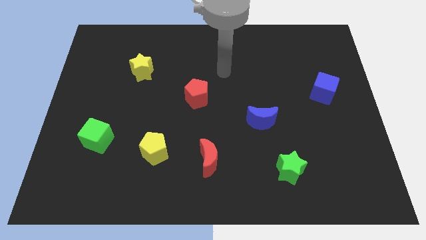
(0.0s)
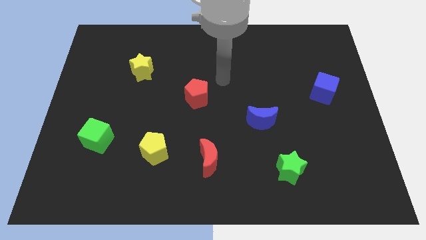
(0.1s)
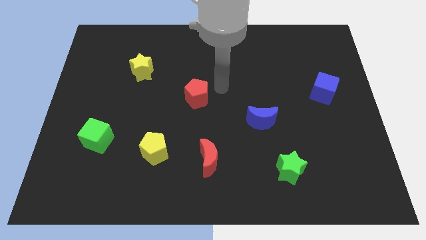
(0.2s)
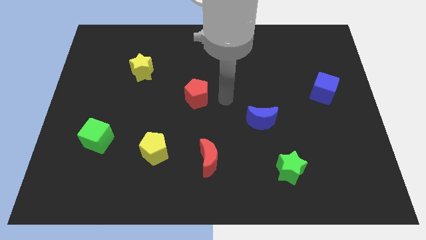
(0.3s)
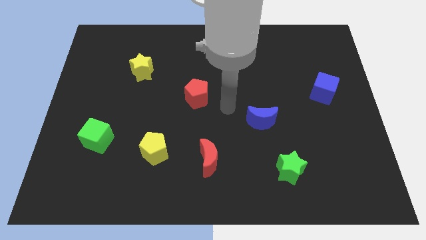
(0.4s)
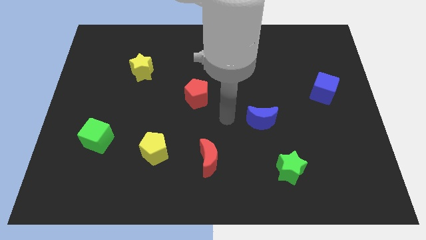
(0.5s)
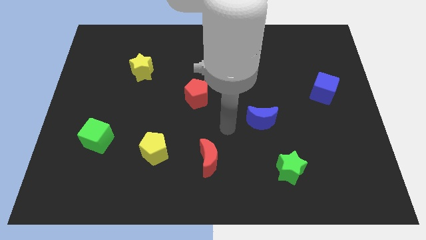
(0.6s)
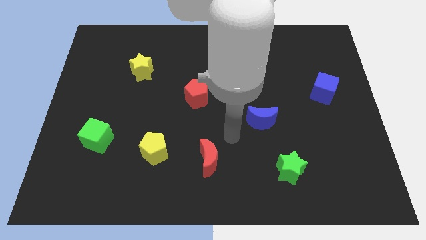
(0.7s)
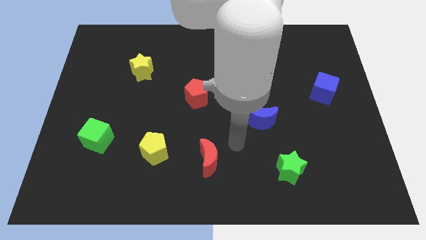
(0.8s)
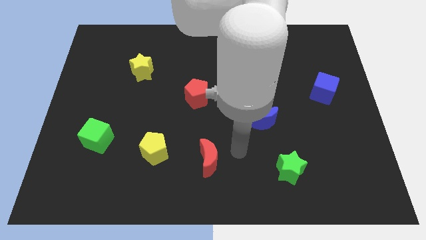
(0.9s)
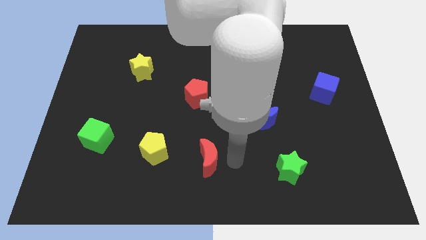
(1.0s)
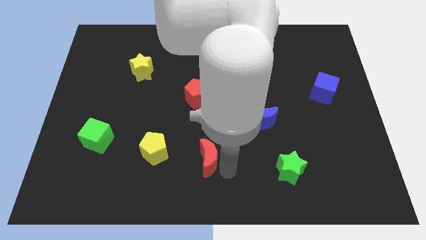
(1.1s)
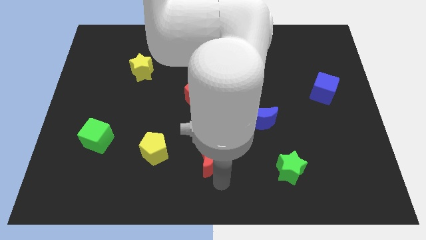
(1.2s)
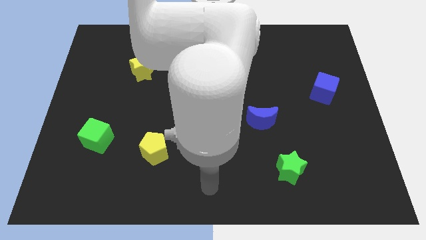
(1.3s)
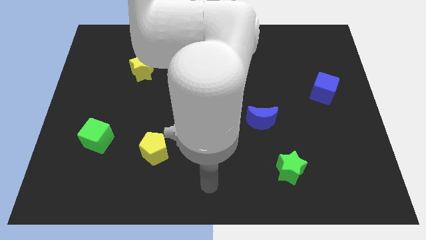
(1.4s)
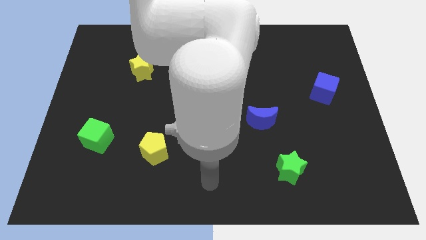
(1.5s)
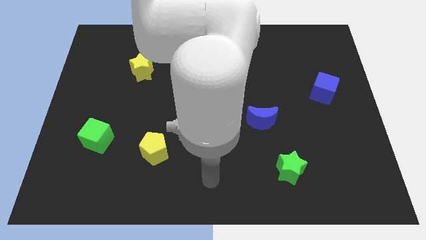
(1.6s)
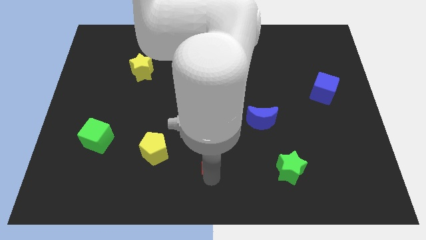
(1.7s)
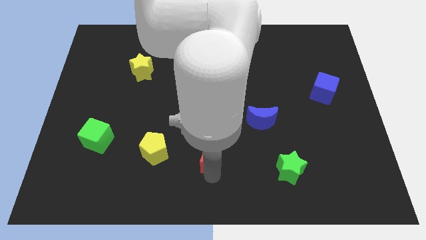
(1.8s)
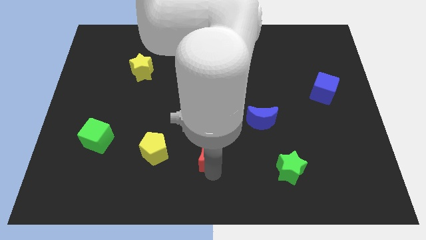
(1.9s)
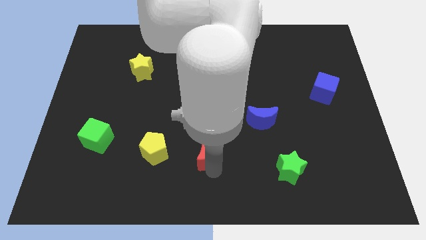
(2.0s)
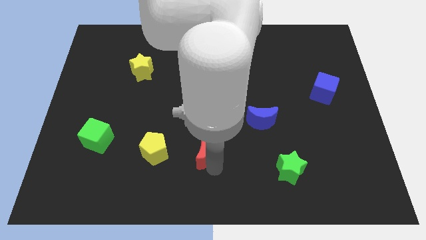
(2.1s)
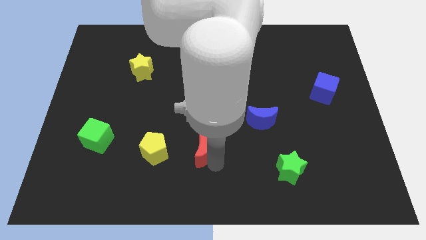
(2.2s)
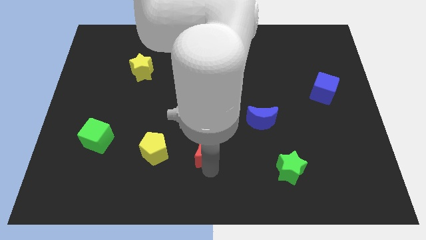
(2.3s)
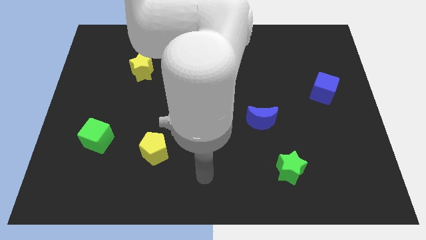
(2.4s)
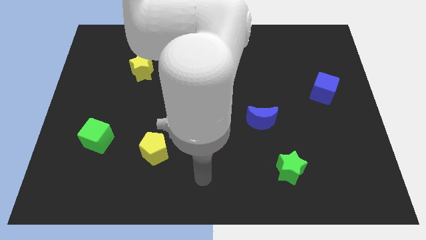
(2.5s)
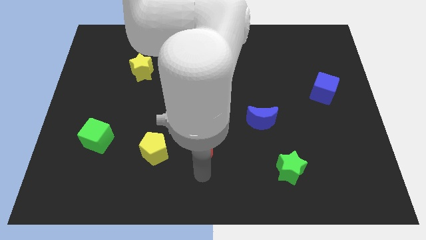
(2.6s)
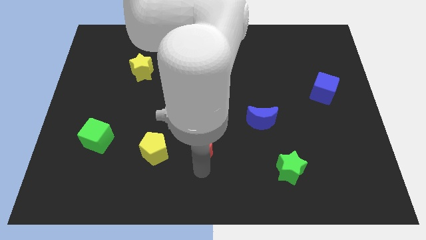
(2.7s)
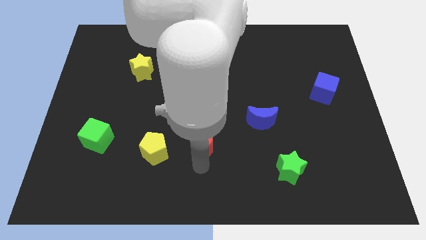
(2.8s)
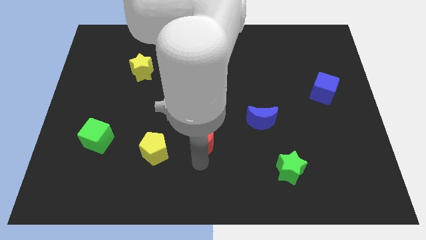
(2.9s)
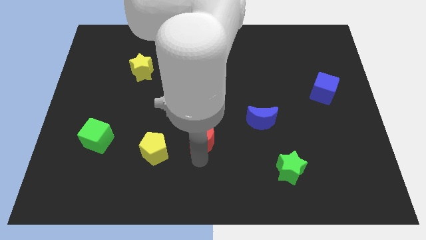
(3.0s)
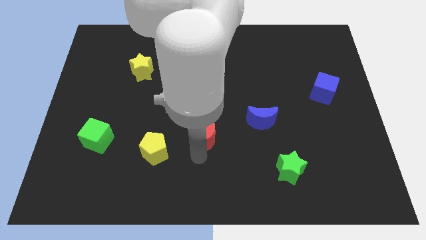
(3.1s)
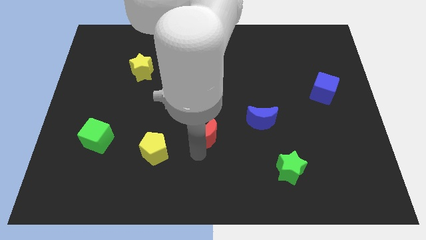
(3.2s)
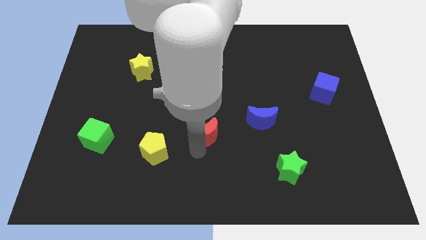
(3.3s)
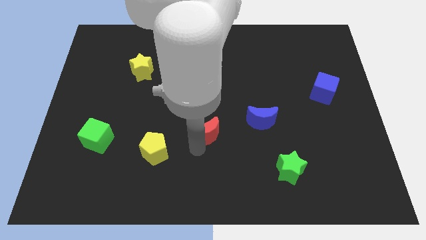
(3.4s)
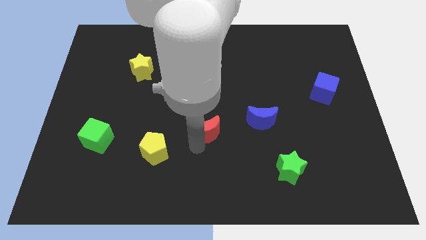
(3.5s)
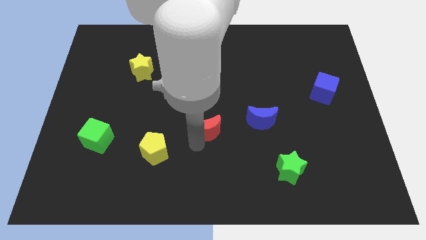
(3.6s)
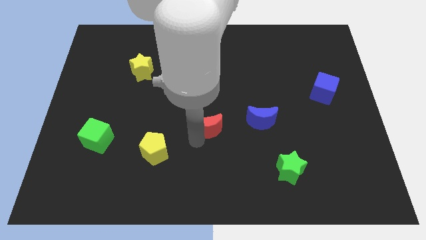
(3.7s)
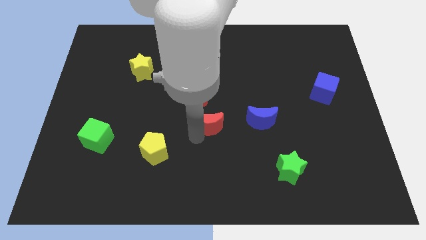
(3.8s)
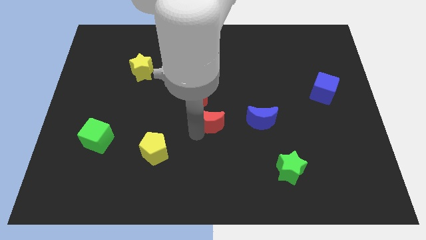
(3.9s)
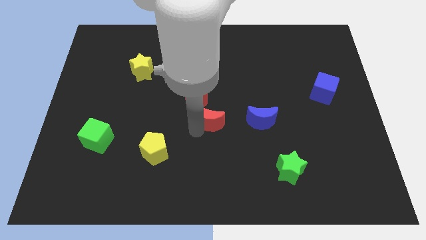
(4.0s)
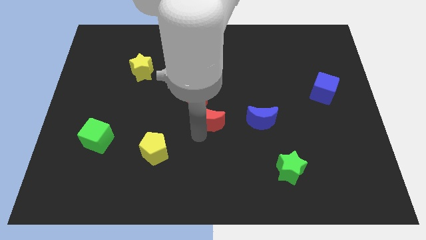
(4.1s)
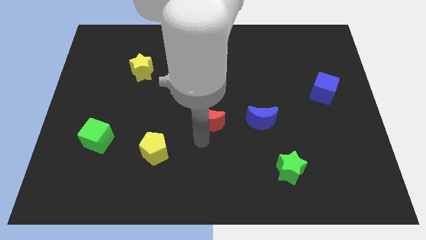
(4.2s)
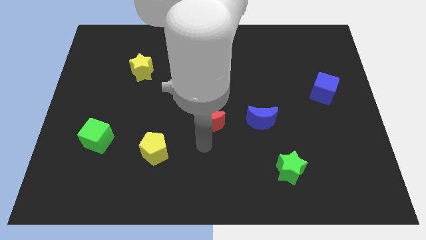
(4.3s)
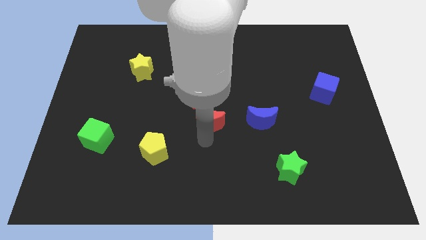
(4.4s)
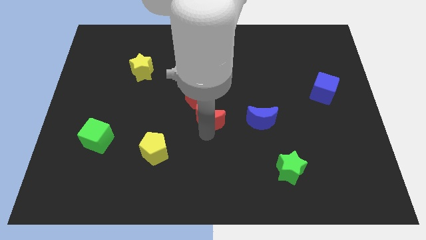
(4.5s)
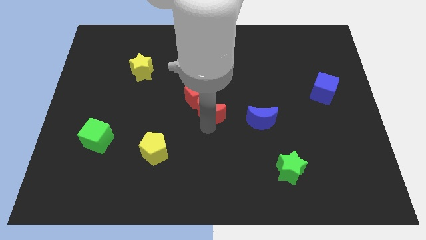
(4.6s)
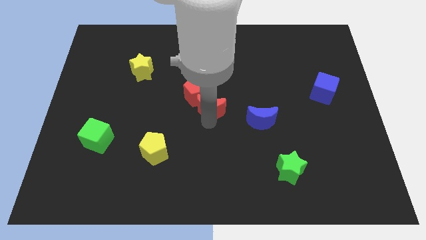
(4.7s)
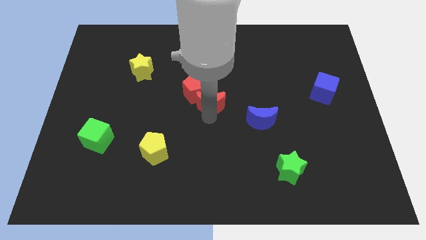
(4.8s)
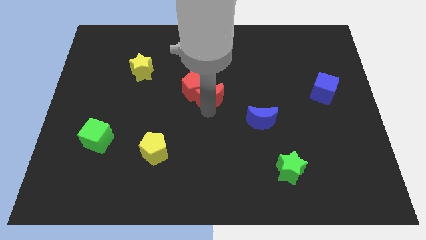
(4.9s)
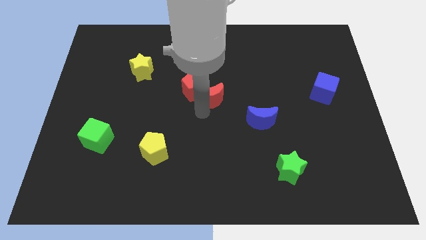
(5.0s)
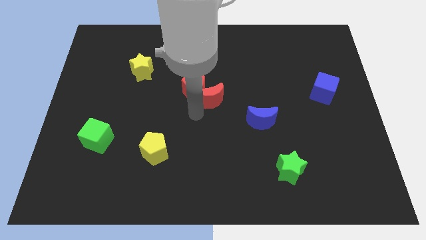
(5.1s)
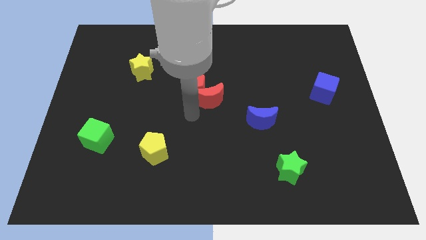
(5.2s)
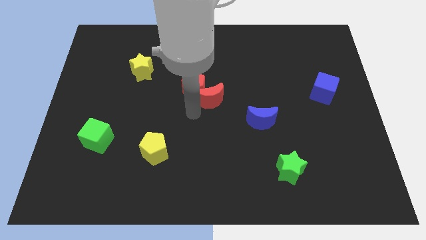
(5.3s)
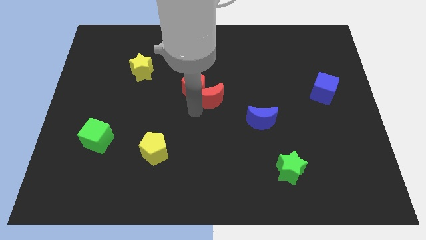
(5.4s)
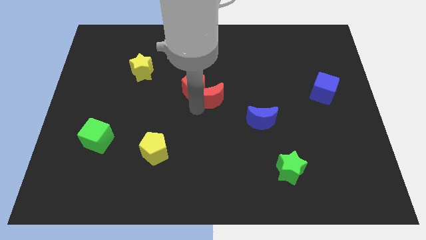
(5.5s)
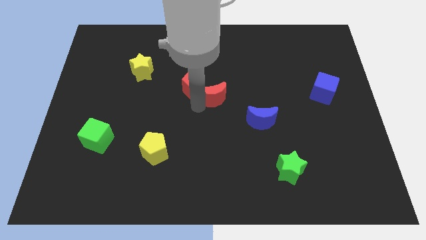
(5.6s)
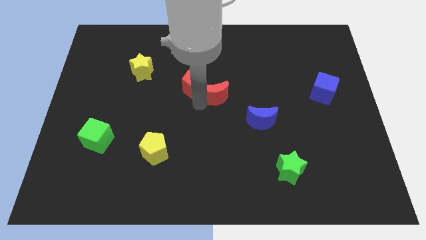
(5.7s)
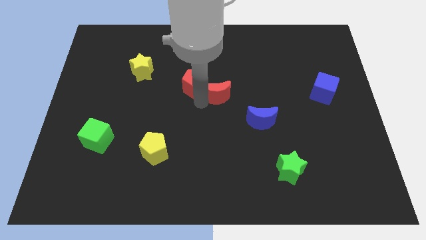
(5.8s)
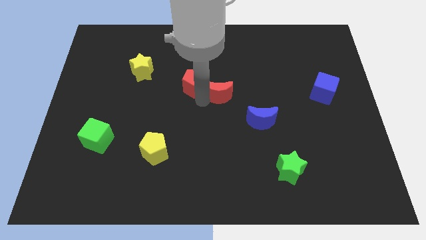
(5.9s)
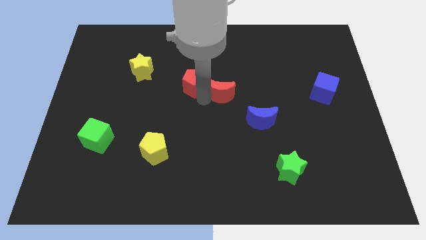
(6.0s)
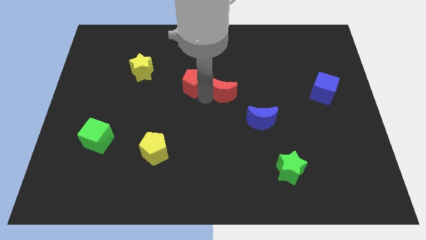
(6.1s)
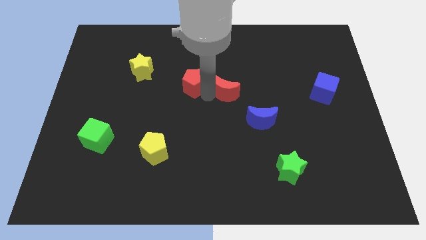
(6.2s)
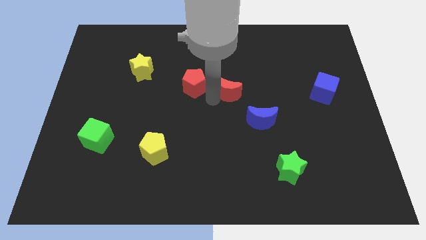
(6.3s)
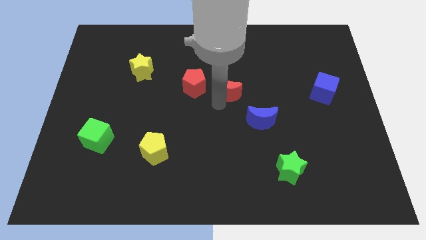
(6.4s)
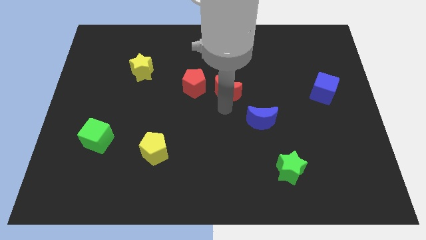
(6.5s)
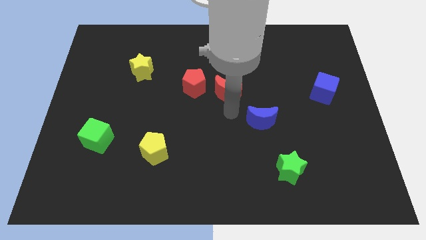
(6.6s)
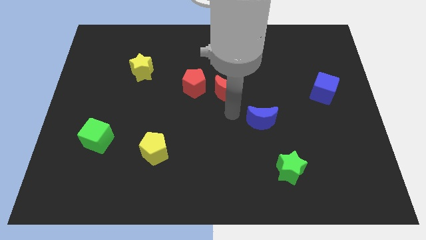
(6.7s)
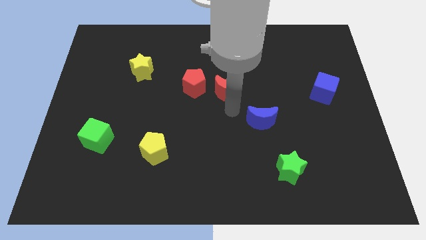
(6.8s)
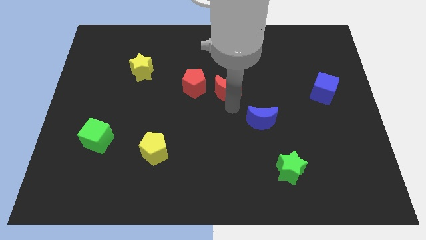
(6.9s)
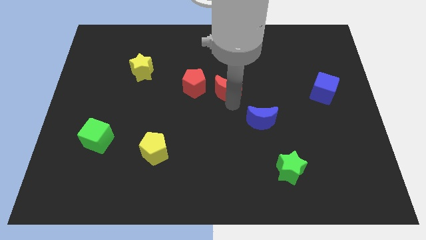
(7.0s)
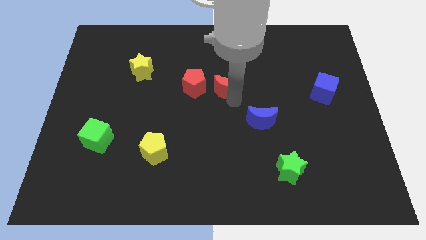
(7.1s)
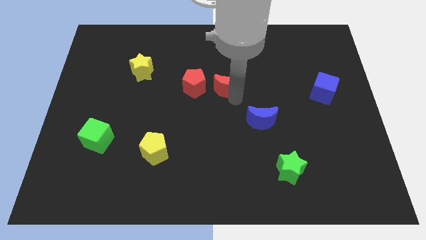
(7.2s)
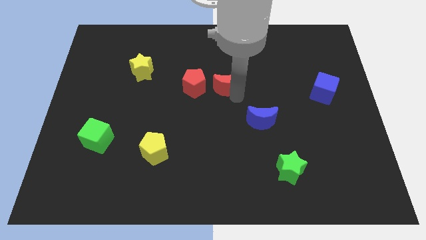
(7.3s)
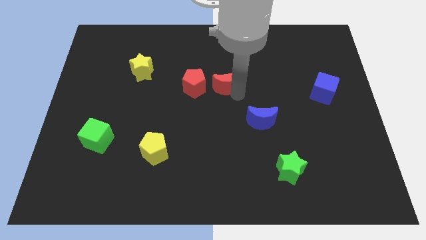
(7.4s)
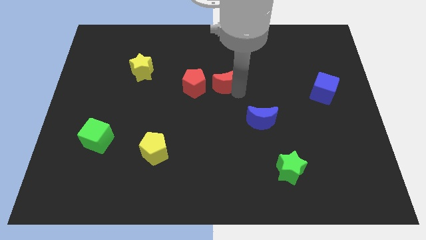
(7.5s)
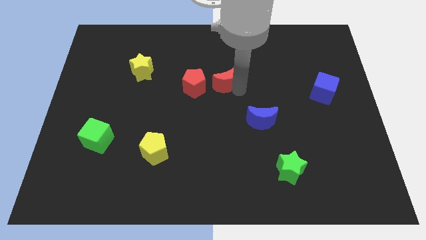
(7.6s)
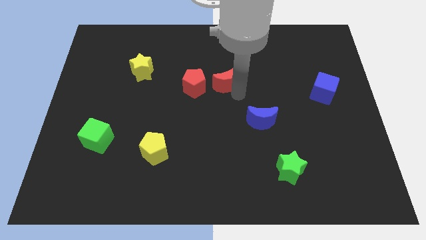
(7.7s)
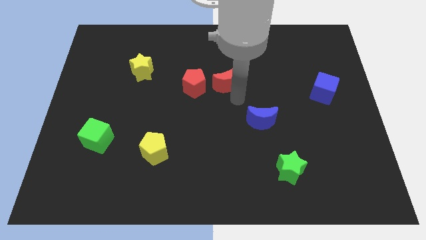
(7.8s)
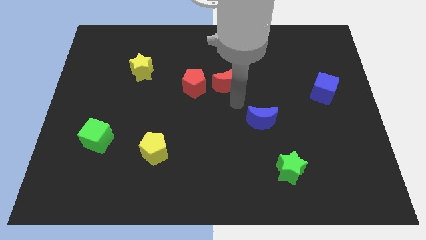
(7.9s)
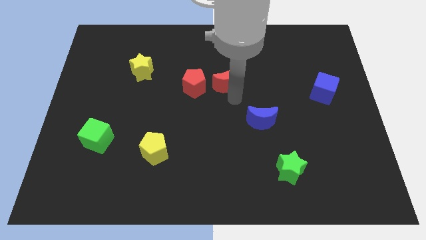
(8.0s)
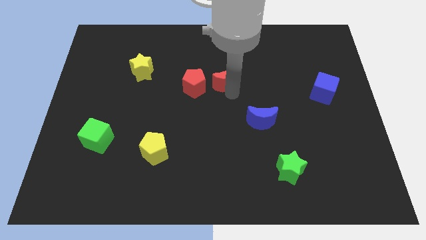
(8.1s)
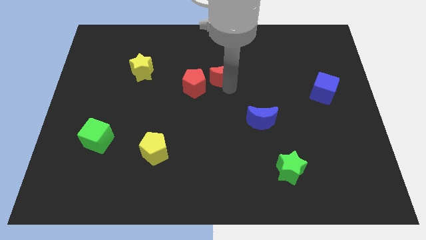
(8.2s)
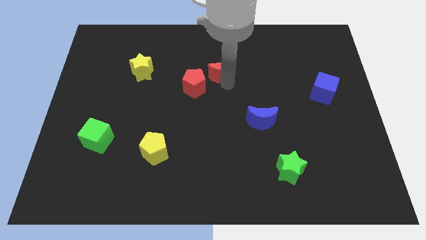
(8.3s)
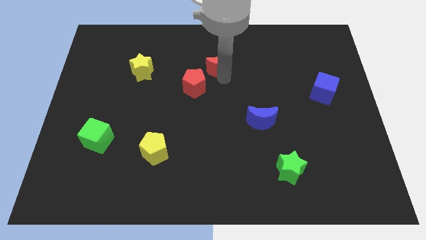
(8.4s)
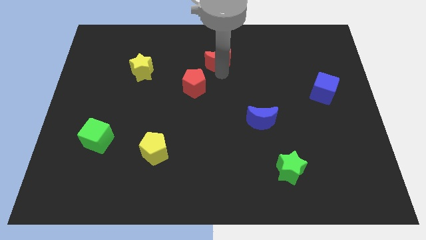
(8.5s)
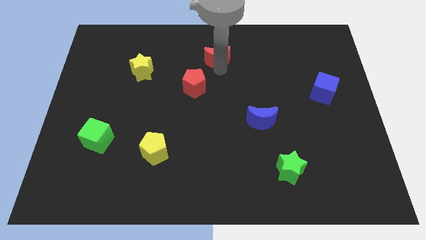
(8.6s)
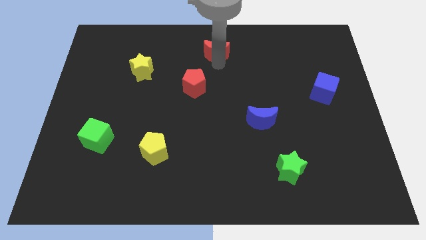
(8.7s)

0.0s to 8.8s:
push the red moon to the top
